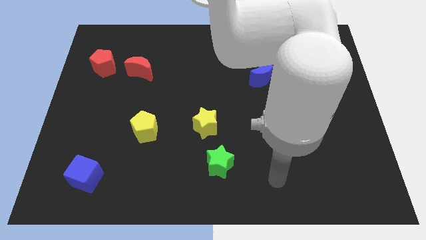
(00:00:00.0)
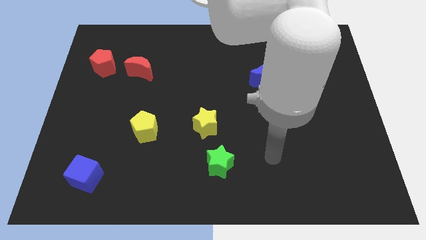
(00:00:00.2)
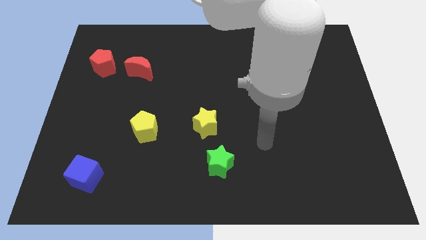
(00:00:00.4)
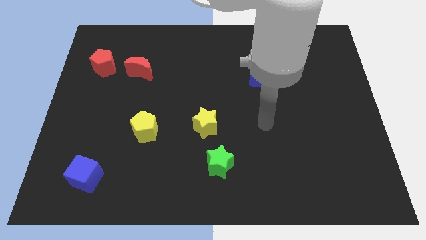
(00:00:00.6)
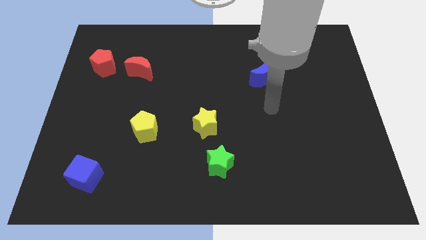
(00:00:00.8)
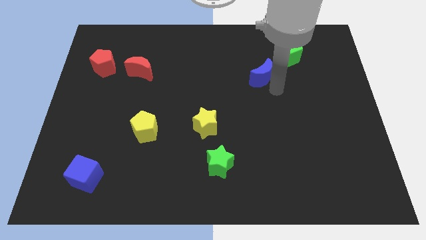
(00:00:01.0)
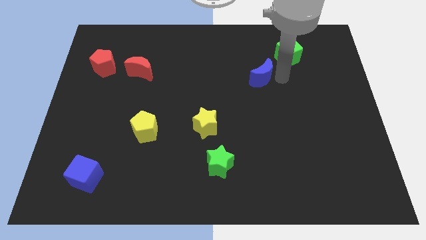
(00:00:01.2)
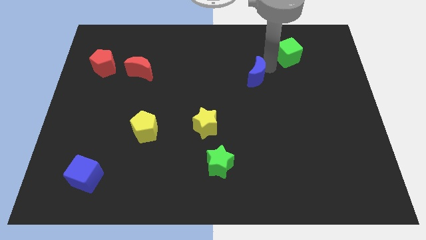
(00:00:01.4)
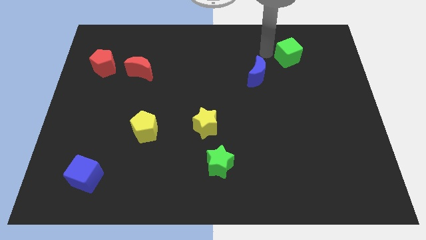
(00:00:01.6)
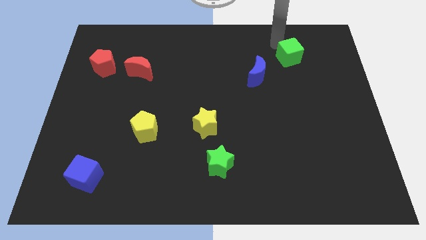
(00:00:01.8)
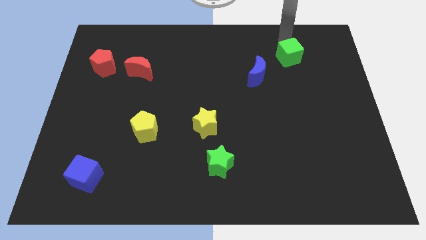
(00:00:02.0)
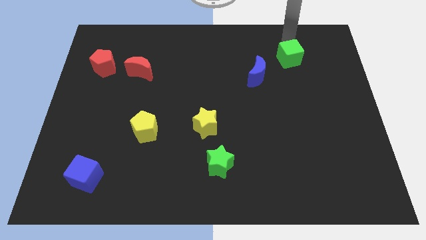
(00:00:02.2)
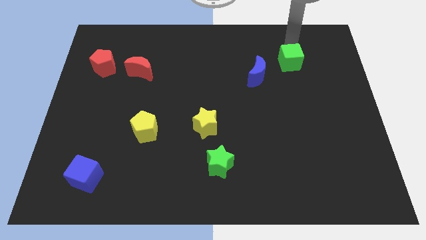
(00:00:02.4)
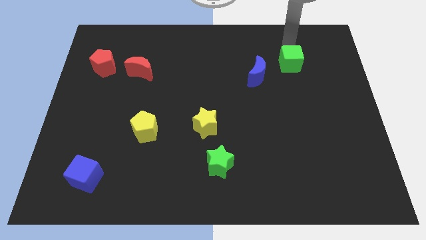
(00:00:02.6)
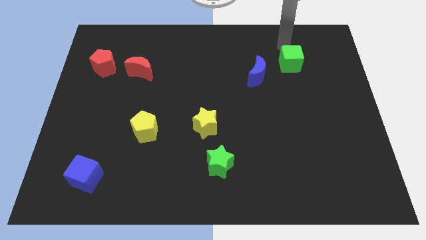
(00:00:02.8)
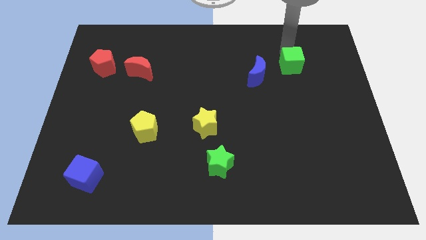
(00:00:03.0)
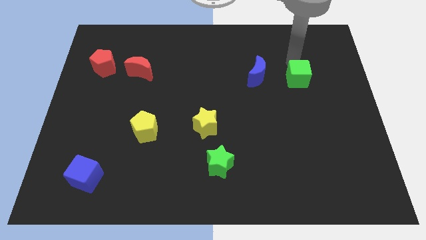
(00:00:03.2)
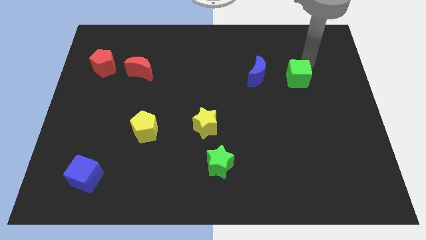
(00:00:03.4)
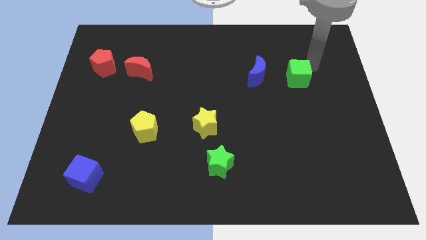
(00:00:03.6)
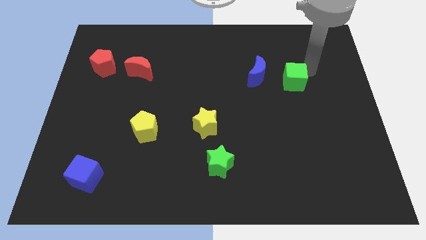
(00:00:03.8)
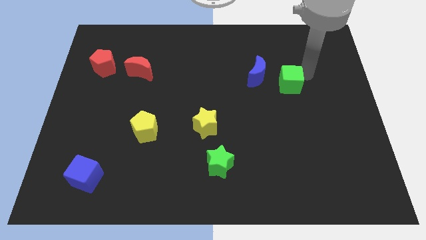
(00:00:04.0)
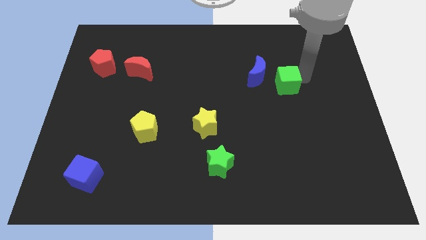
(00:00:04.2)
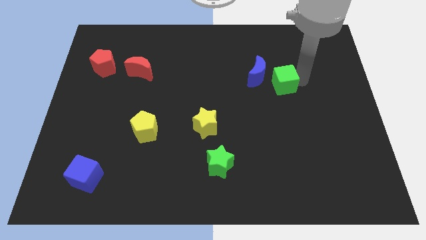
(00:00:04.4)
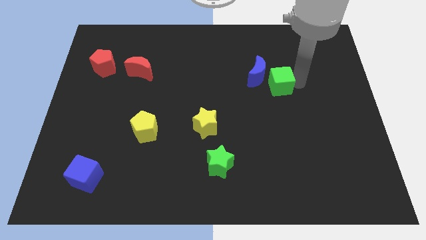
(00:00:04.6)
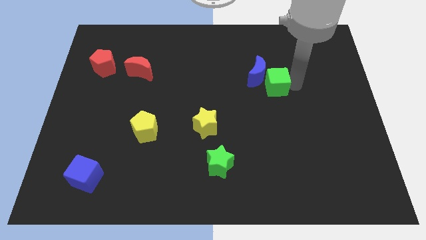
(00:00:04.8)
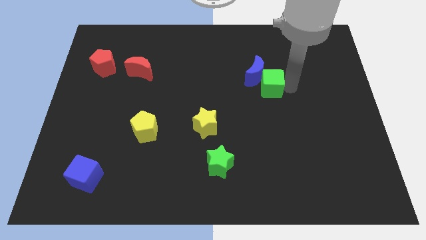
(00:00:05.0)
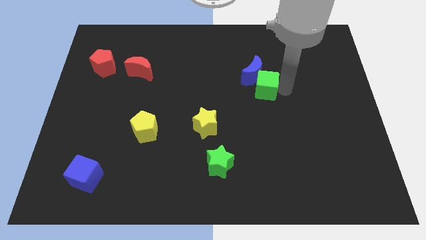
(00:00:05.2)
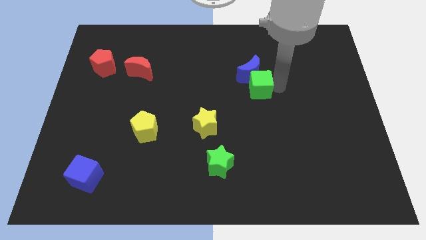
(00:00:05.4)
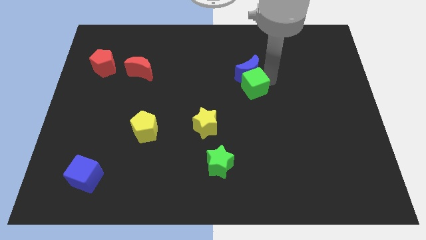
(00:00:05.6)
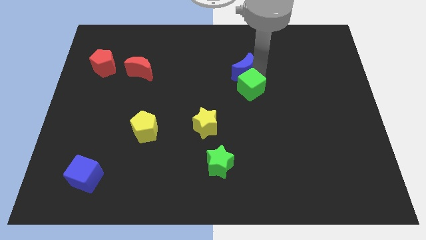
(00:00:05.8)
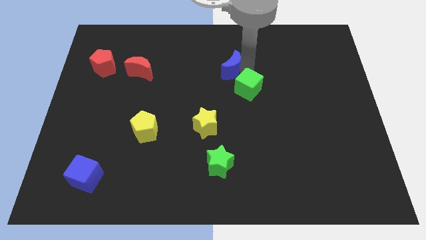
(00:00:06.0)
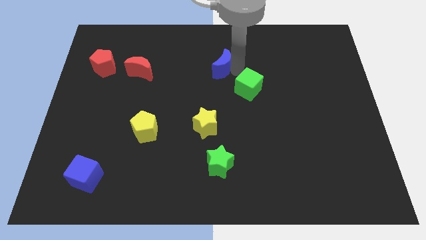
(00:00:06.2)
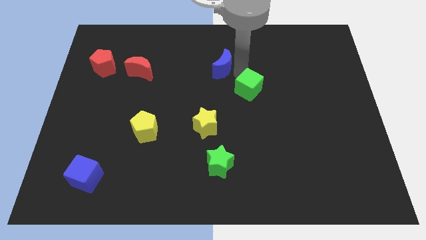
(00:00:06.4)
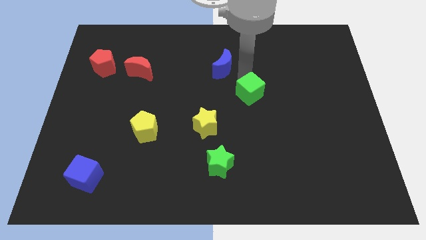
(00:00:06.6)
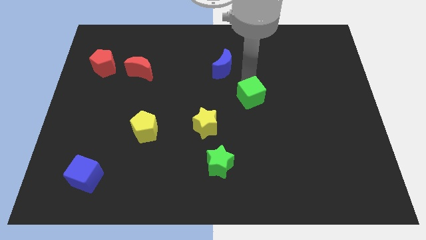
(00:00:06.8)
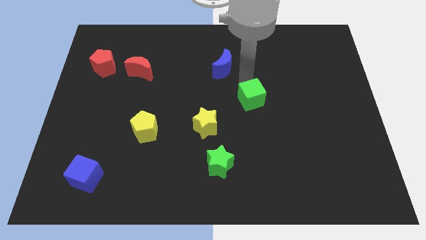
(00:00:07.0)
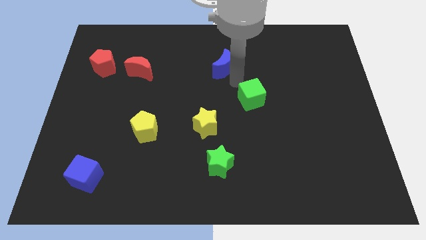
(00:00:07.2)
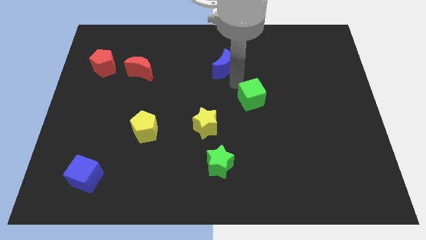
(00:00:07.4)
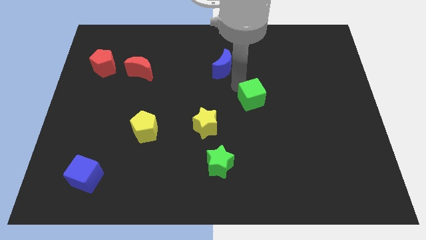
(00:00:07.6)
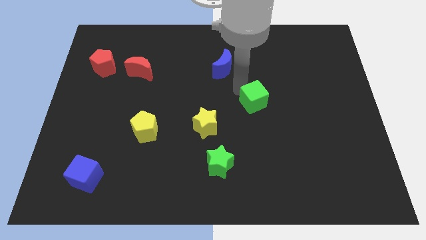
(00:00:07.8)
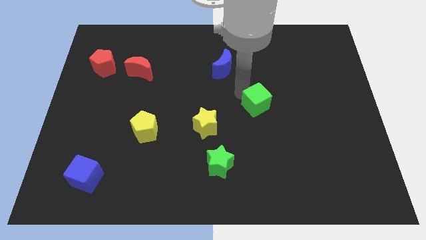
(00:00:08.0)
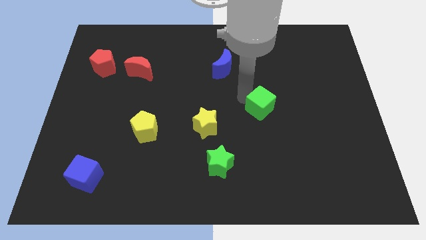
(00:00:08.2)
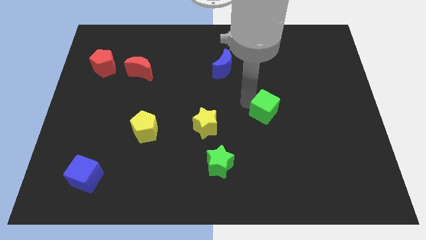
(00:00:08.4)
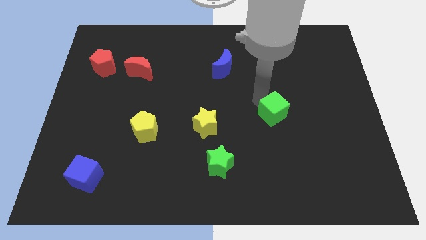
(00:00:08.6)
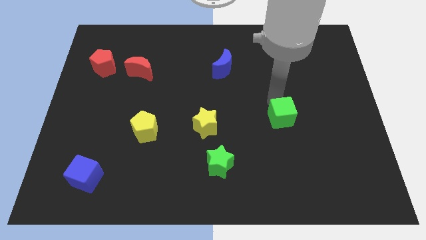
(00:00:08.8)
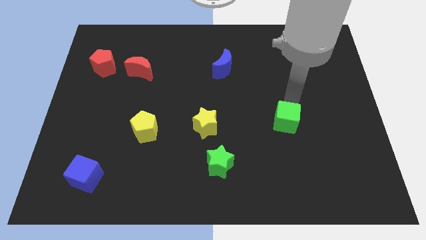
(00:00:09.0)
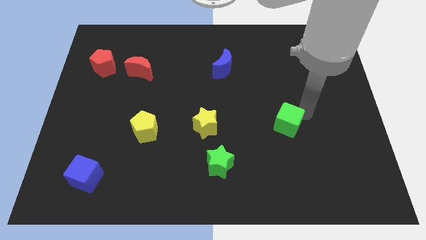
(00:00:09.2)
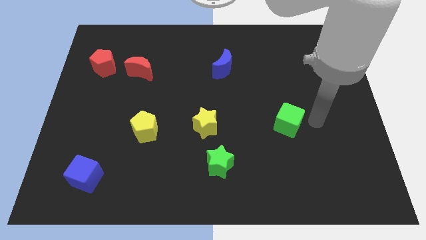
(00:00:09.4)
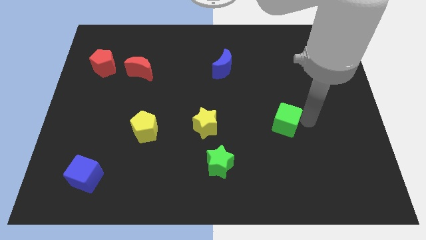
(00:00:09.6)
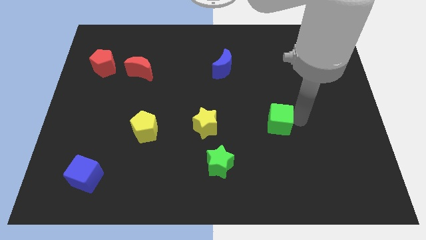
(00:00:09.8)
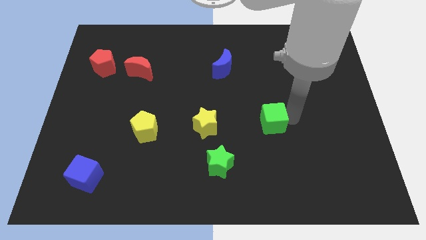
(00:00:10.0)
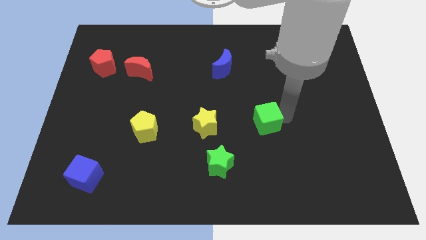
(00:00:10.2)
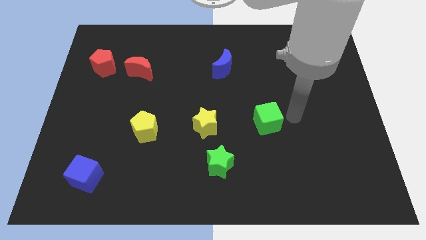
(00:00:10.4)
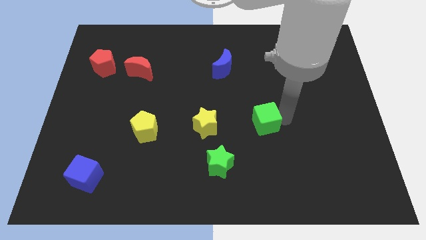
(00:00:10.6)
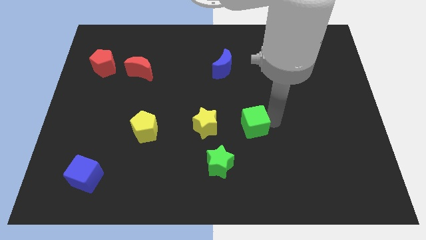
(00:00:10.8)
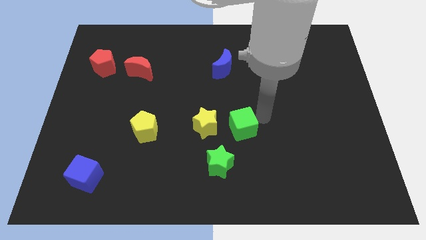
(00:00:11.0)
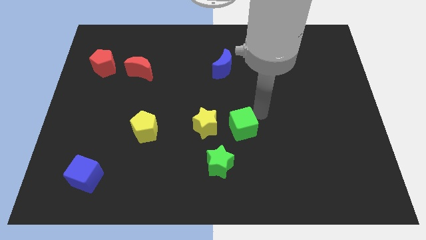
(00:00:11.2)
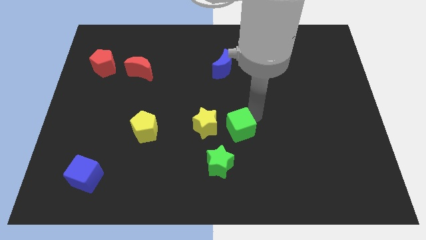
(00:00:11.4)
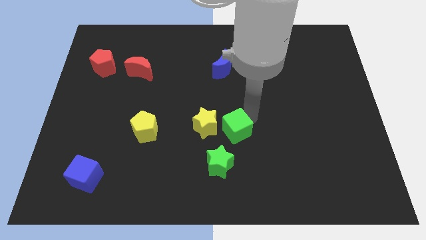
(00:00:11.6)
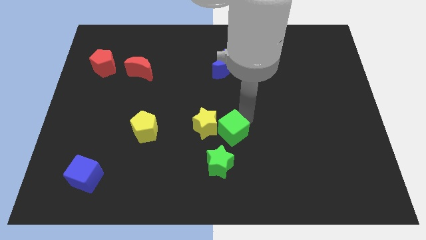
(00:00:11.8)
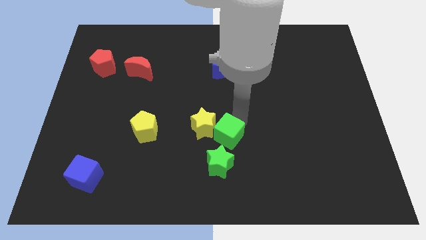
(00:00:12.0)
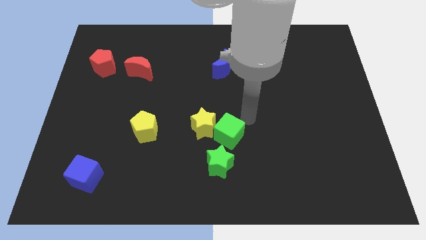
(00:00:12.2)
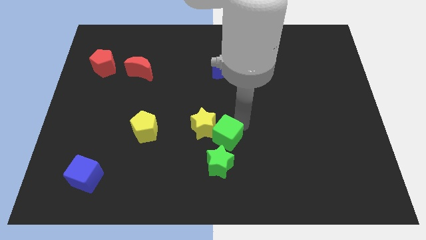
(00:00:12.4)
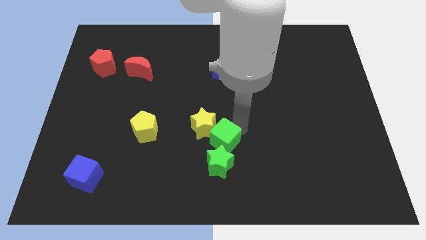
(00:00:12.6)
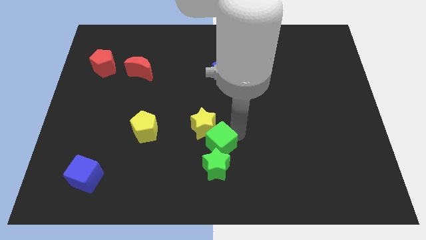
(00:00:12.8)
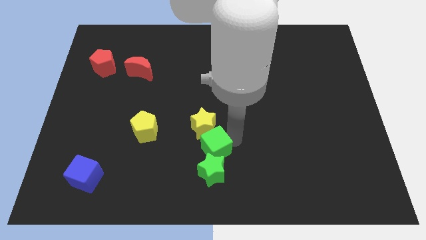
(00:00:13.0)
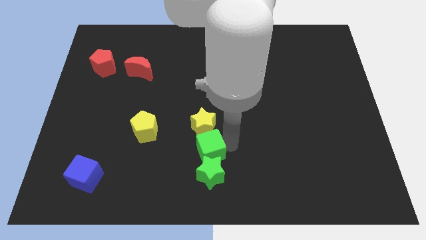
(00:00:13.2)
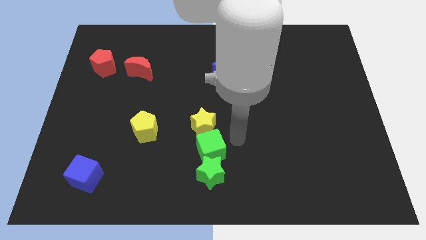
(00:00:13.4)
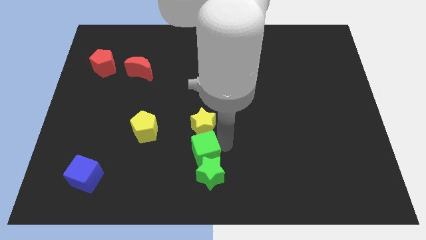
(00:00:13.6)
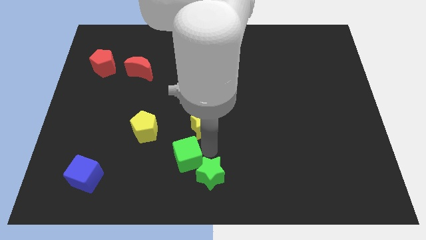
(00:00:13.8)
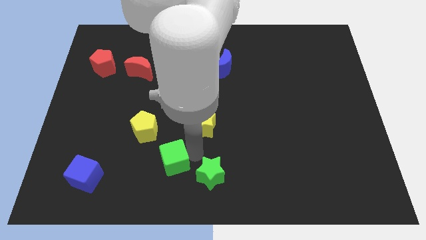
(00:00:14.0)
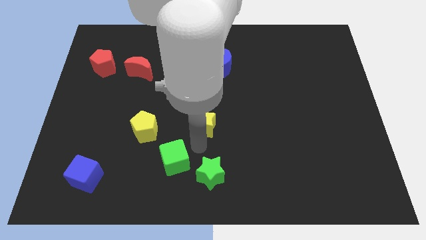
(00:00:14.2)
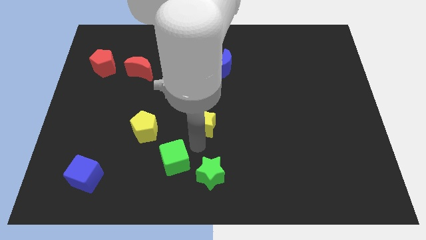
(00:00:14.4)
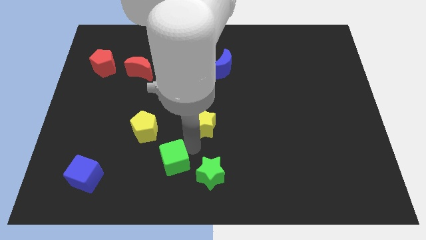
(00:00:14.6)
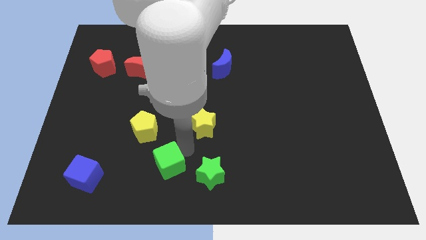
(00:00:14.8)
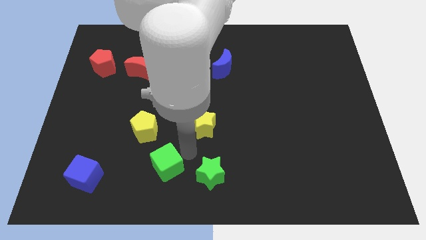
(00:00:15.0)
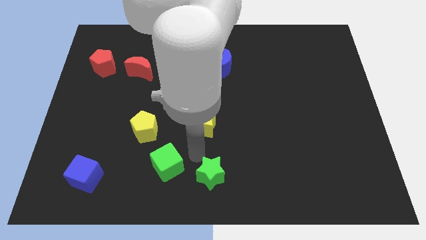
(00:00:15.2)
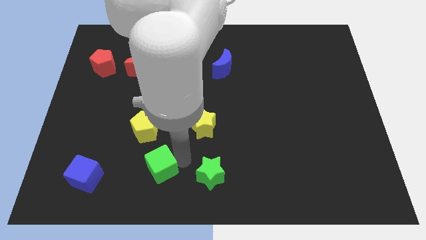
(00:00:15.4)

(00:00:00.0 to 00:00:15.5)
slide the green cube just right of the blue cube
